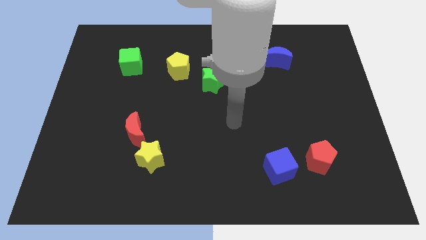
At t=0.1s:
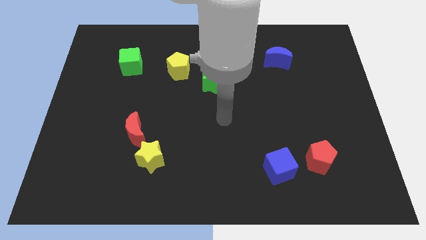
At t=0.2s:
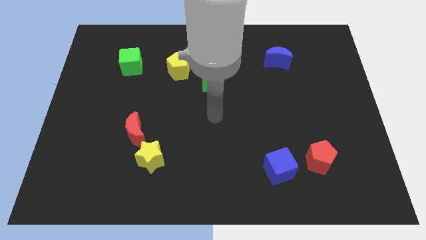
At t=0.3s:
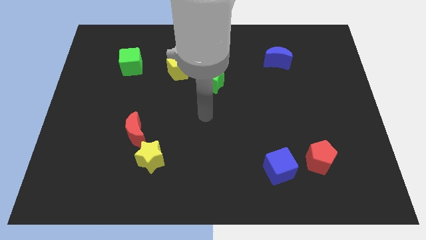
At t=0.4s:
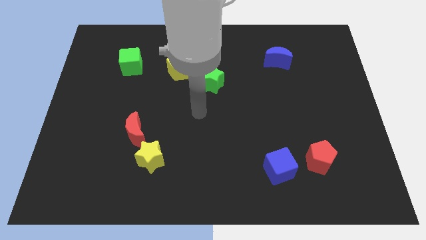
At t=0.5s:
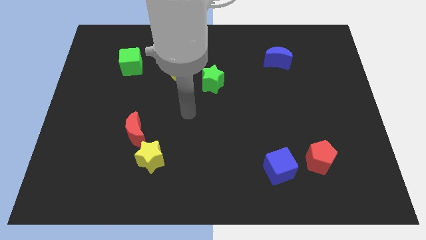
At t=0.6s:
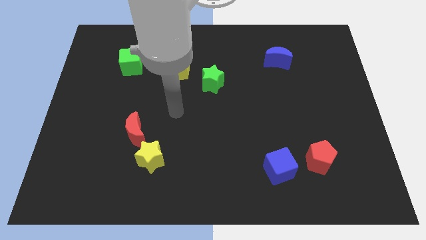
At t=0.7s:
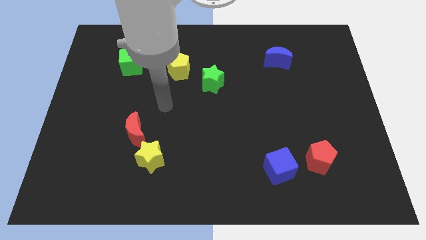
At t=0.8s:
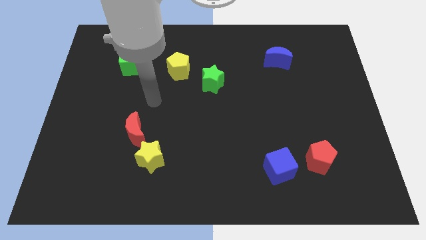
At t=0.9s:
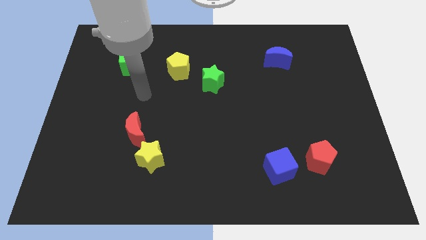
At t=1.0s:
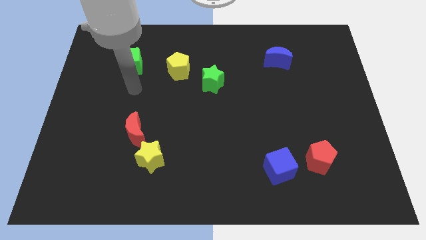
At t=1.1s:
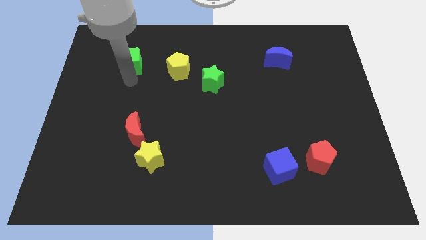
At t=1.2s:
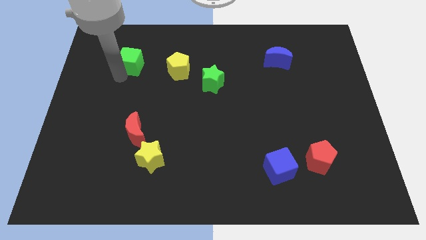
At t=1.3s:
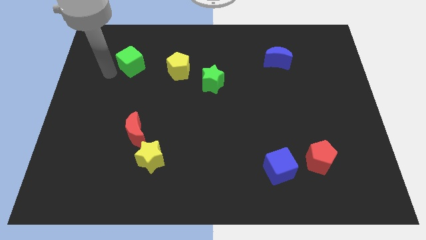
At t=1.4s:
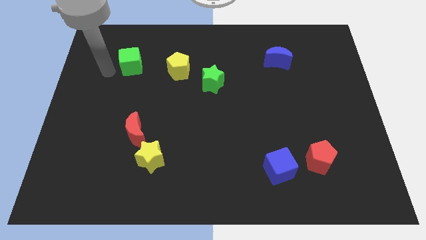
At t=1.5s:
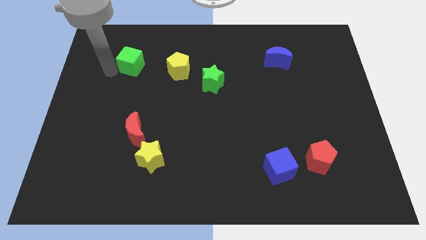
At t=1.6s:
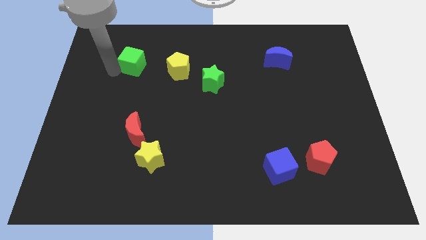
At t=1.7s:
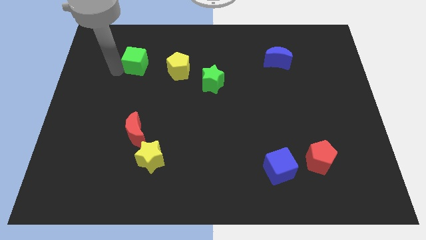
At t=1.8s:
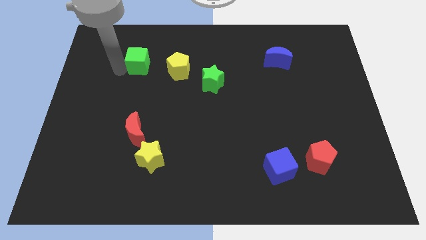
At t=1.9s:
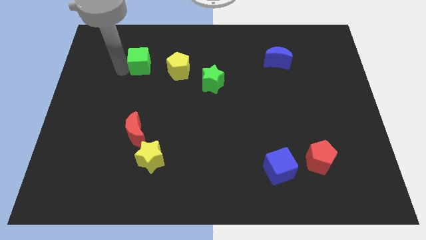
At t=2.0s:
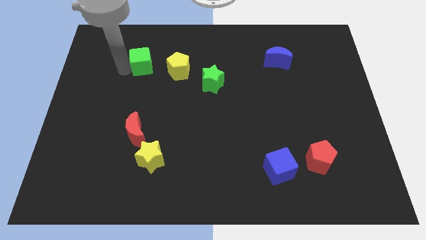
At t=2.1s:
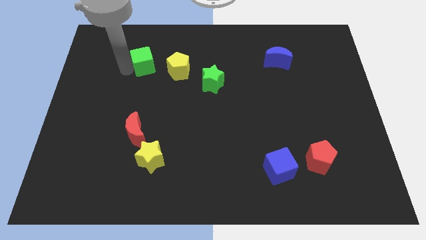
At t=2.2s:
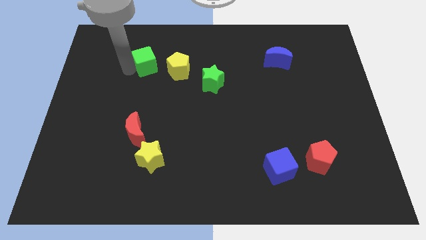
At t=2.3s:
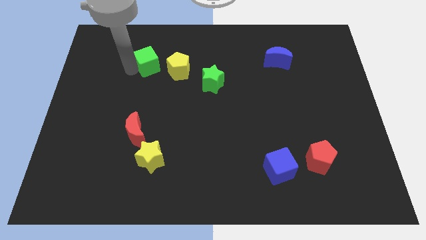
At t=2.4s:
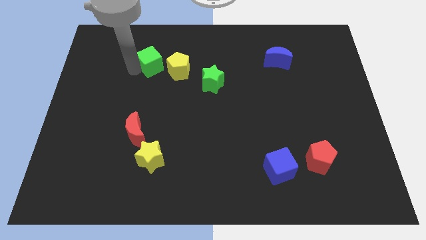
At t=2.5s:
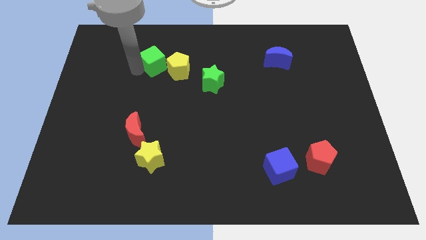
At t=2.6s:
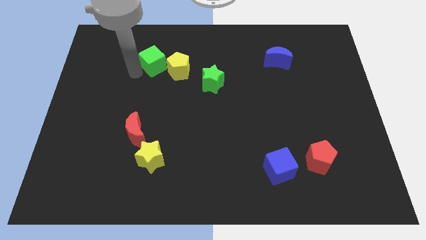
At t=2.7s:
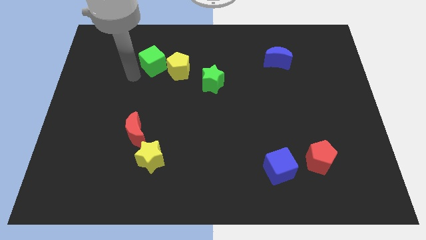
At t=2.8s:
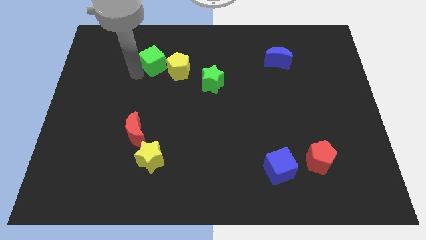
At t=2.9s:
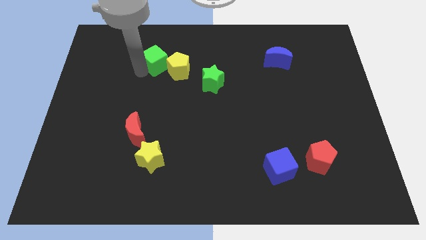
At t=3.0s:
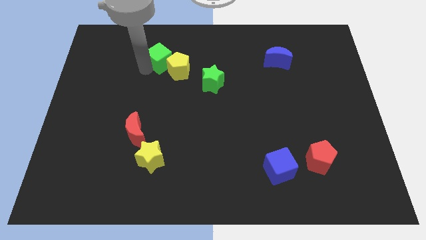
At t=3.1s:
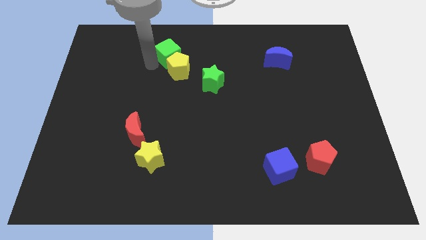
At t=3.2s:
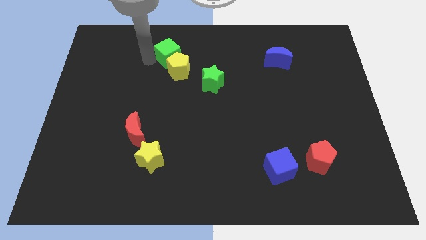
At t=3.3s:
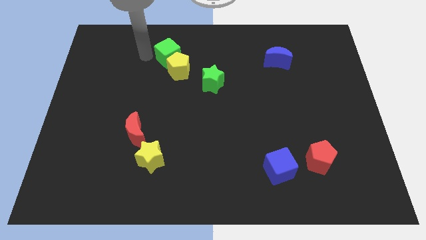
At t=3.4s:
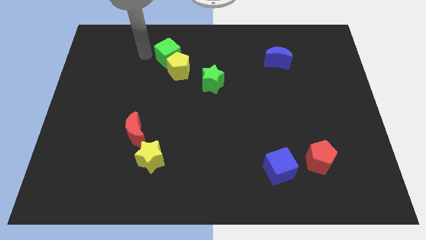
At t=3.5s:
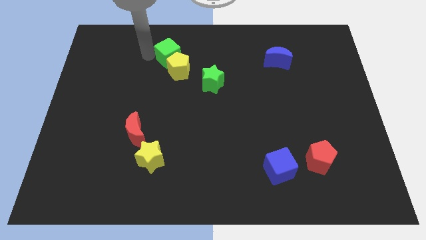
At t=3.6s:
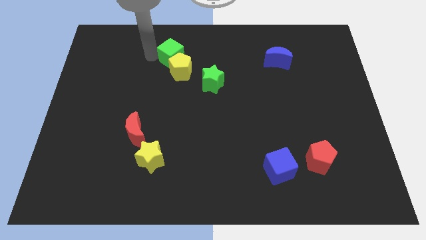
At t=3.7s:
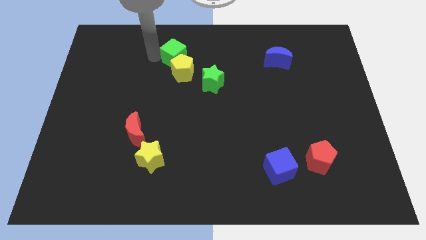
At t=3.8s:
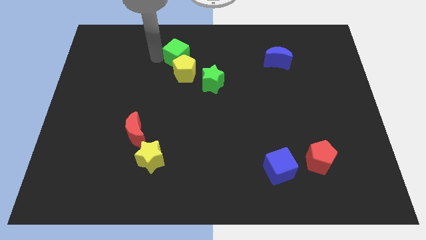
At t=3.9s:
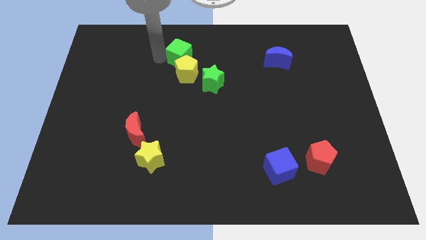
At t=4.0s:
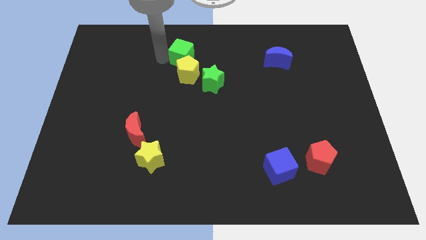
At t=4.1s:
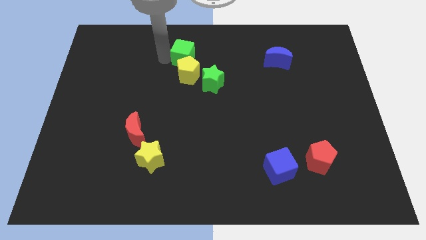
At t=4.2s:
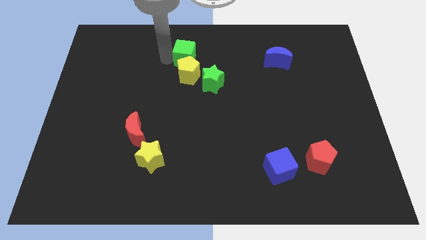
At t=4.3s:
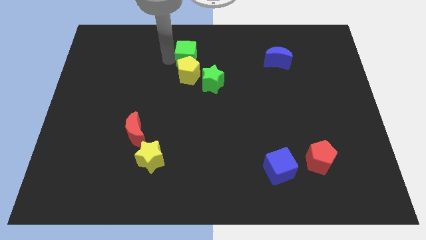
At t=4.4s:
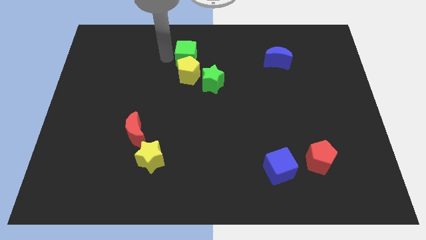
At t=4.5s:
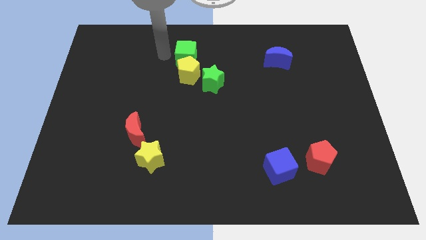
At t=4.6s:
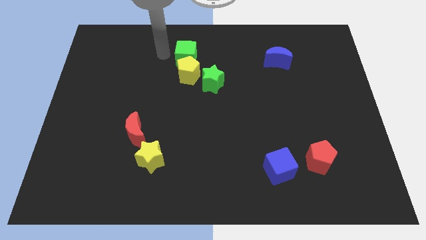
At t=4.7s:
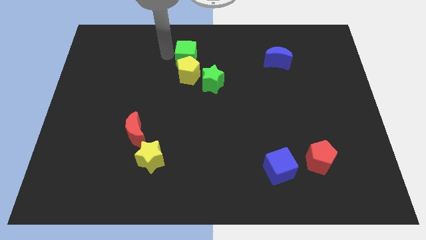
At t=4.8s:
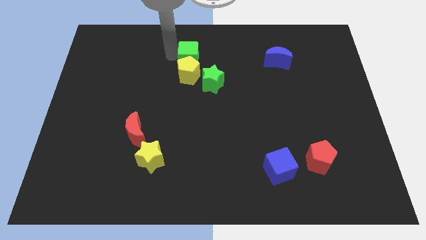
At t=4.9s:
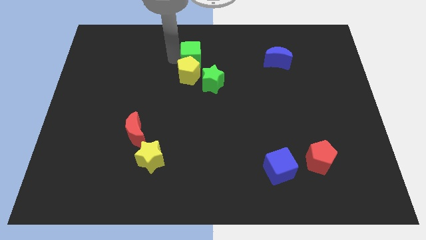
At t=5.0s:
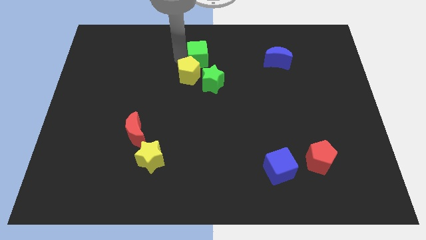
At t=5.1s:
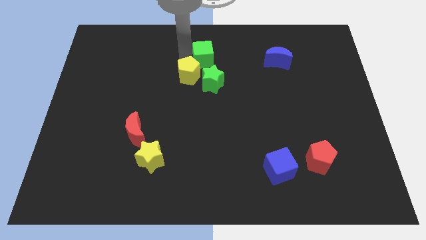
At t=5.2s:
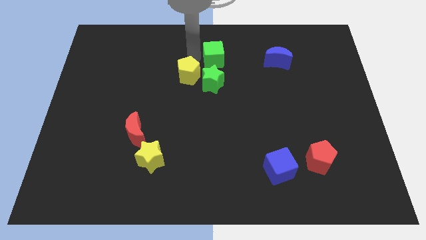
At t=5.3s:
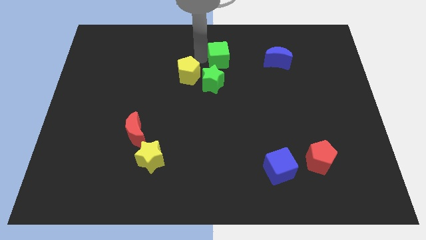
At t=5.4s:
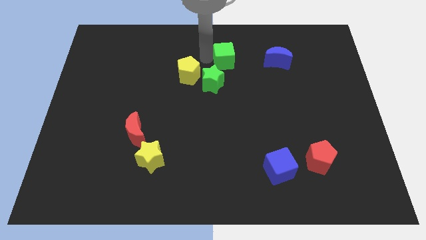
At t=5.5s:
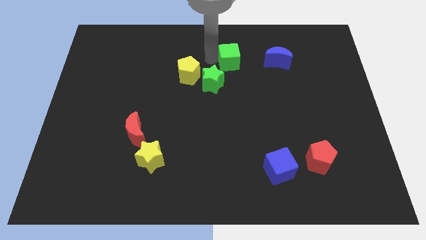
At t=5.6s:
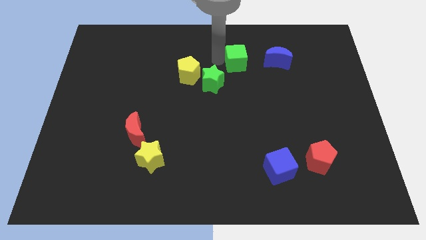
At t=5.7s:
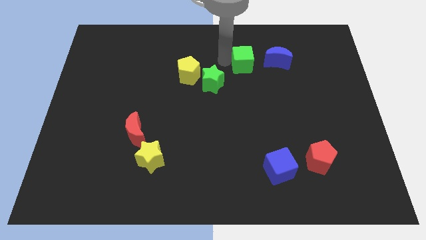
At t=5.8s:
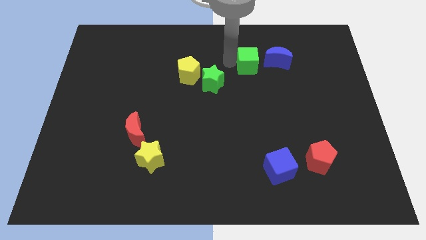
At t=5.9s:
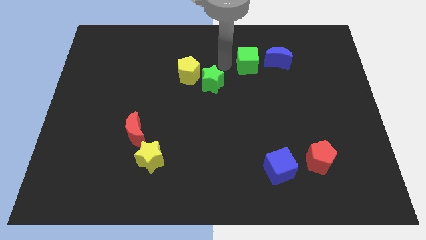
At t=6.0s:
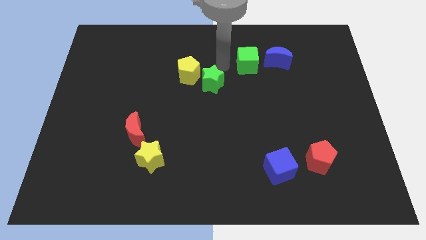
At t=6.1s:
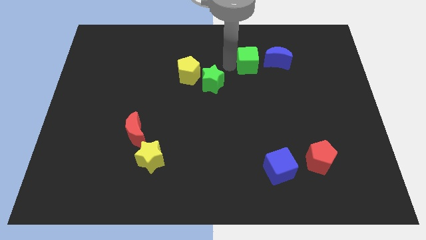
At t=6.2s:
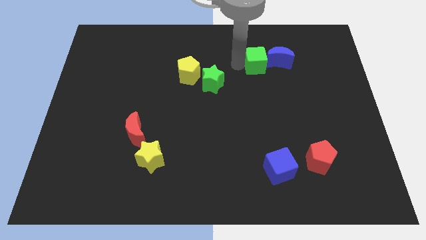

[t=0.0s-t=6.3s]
move the green cube next to the blue moon

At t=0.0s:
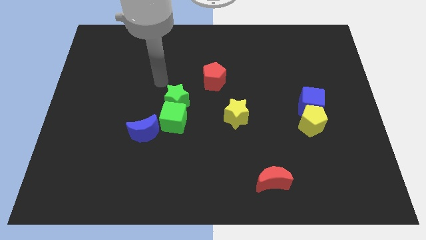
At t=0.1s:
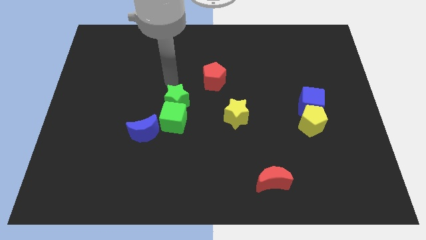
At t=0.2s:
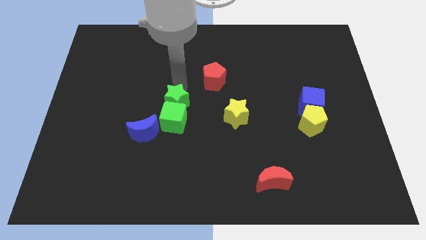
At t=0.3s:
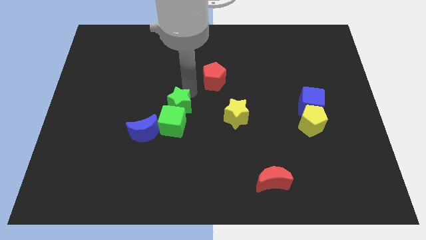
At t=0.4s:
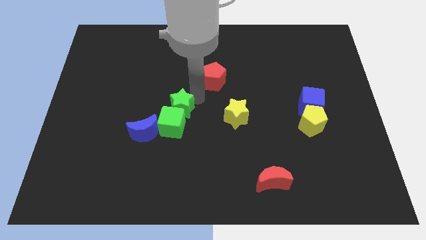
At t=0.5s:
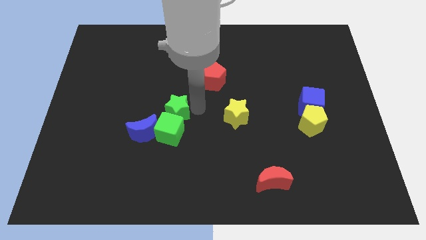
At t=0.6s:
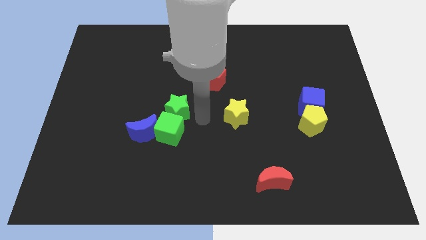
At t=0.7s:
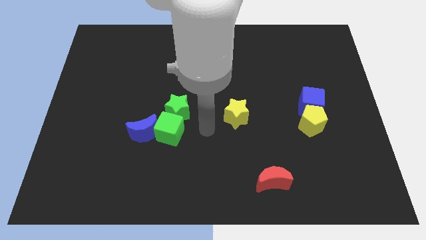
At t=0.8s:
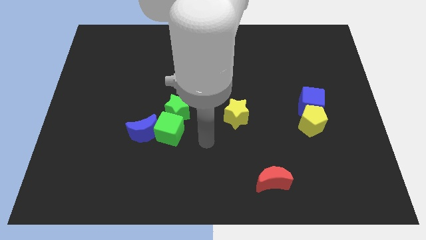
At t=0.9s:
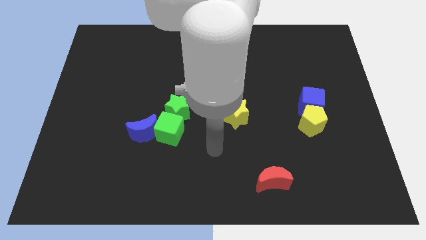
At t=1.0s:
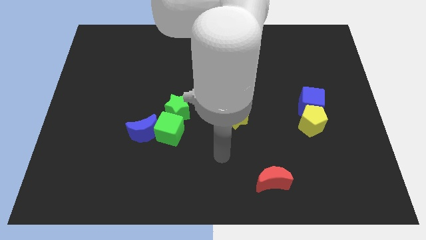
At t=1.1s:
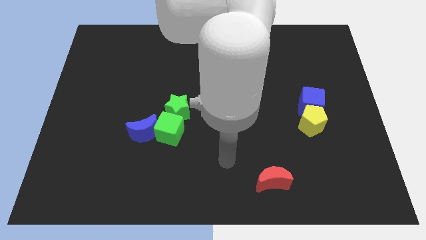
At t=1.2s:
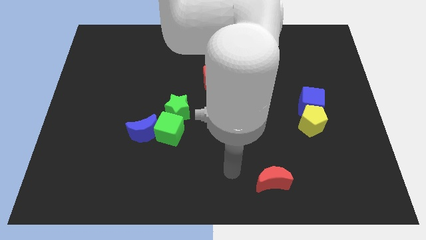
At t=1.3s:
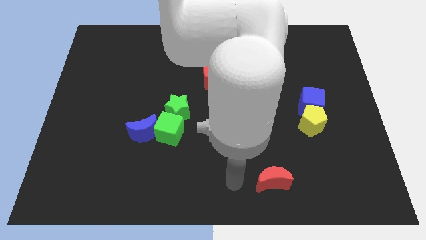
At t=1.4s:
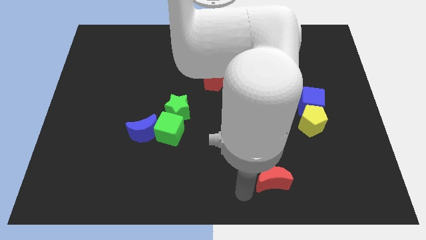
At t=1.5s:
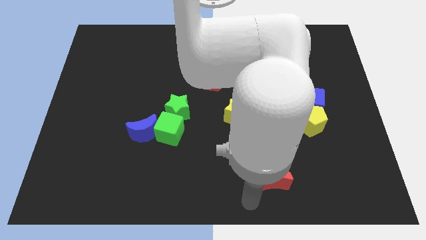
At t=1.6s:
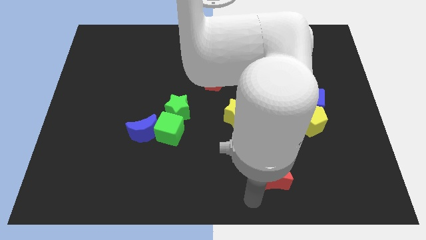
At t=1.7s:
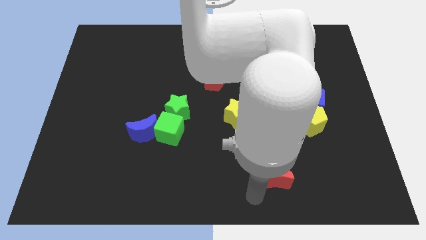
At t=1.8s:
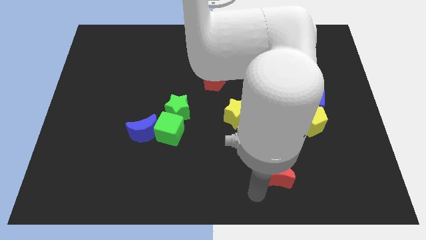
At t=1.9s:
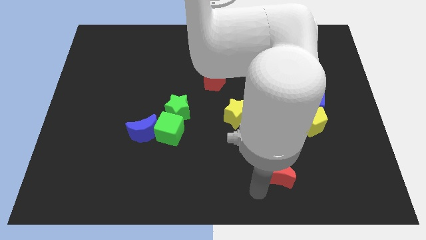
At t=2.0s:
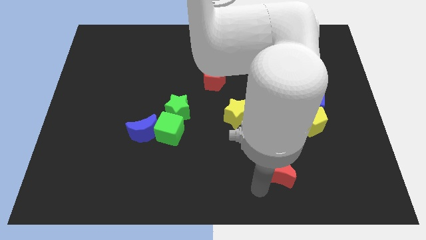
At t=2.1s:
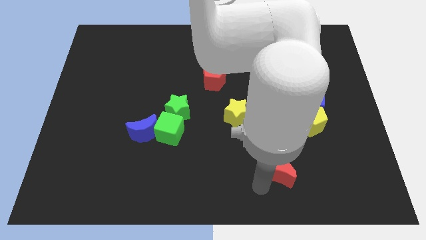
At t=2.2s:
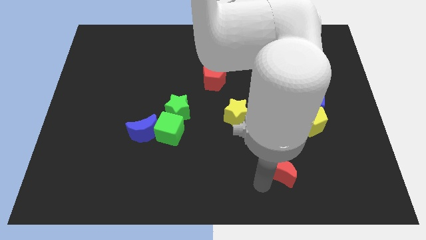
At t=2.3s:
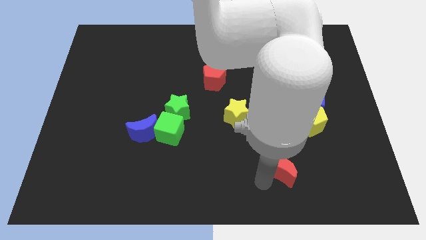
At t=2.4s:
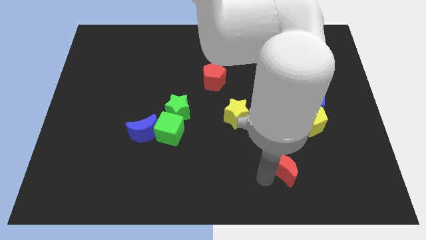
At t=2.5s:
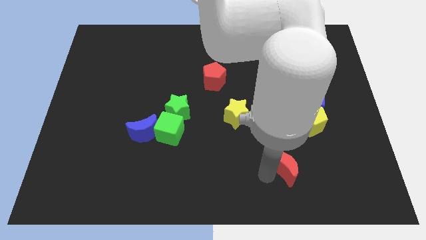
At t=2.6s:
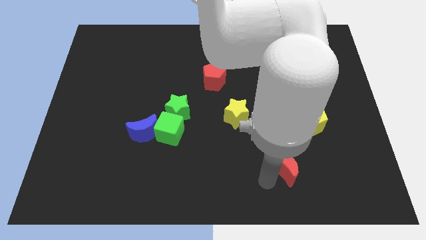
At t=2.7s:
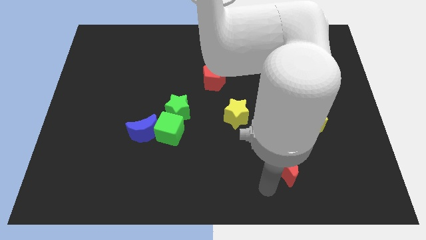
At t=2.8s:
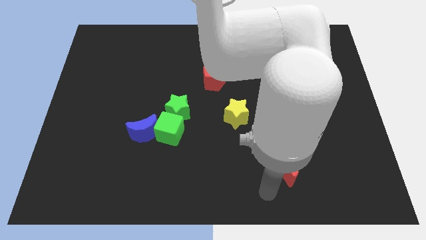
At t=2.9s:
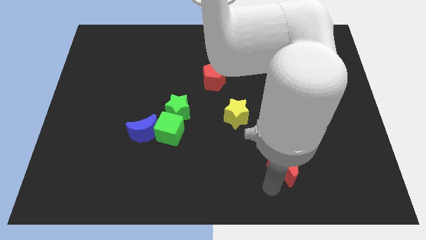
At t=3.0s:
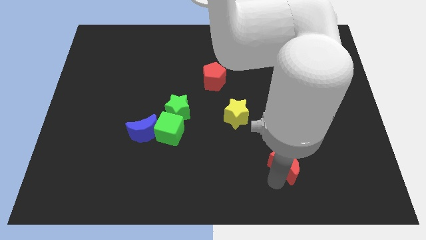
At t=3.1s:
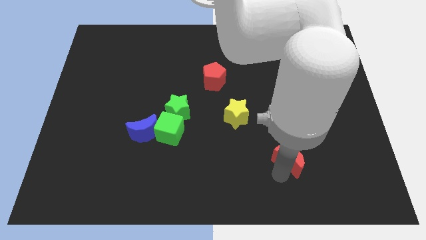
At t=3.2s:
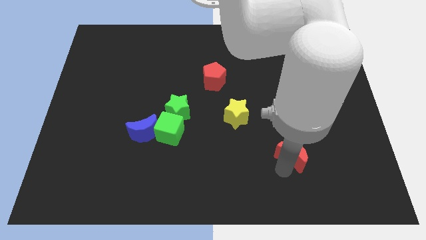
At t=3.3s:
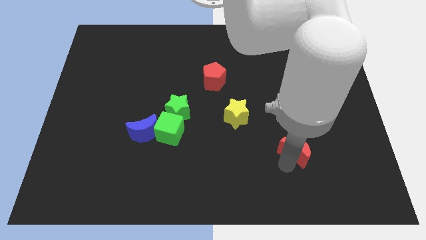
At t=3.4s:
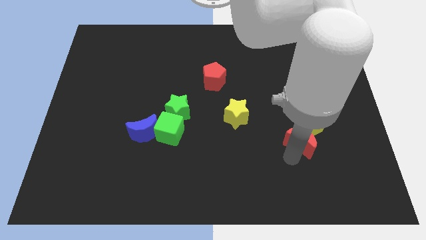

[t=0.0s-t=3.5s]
push the red moon next to the yellow pentagon
